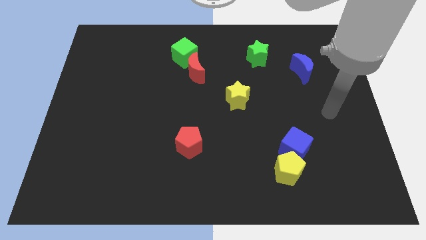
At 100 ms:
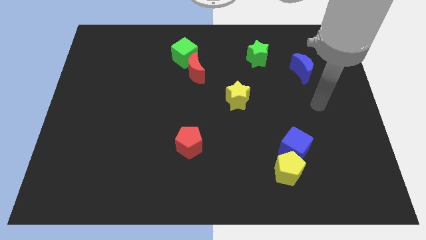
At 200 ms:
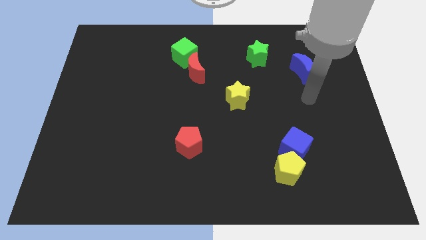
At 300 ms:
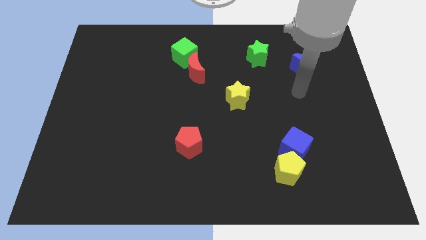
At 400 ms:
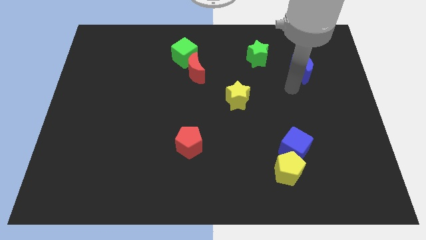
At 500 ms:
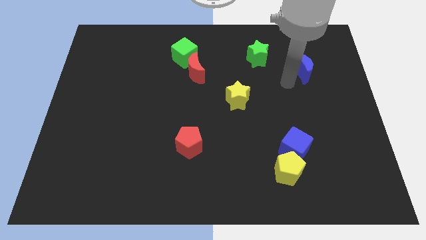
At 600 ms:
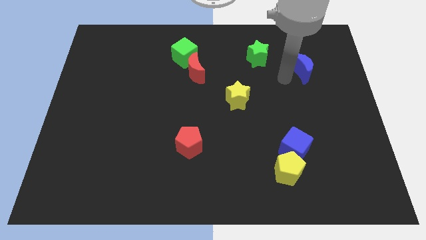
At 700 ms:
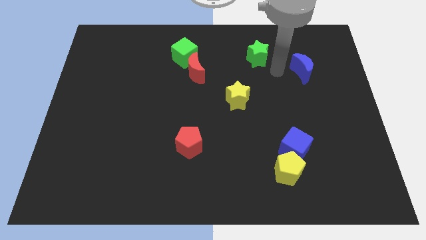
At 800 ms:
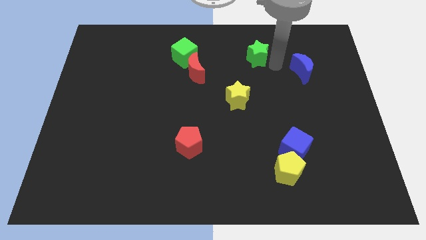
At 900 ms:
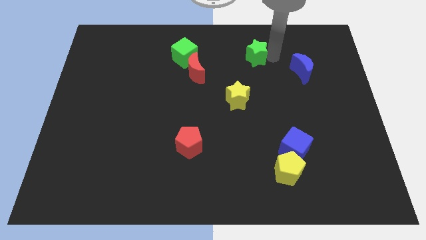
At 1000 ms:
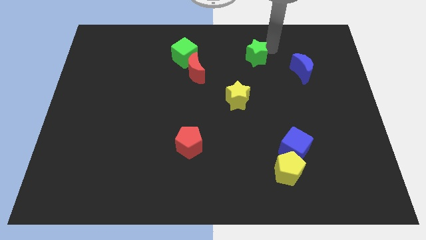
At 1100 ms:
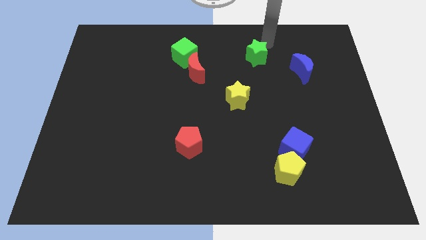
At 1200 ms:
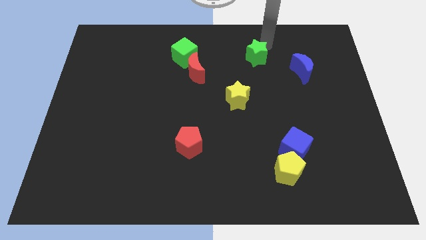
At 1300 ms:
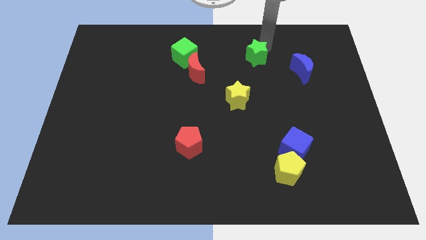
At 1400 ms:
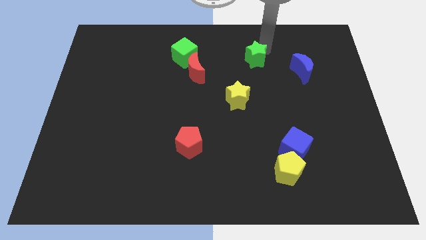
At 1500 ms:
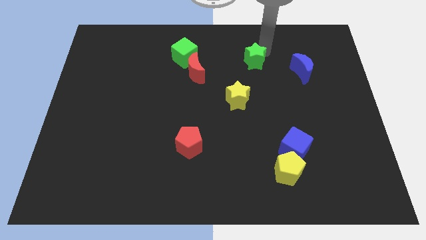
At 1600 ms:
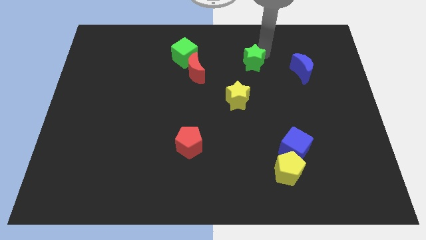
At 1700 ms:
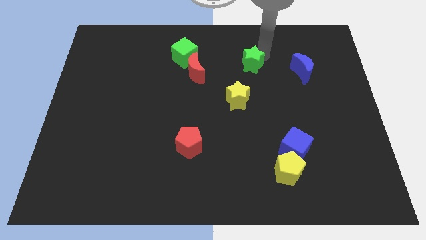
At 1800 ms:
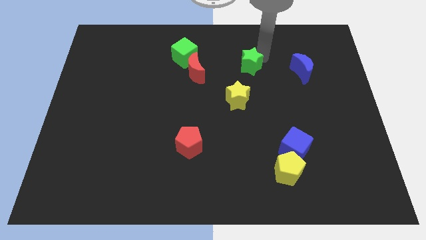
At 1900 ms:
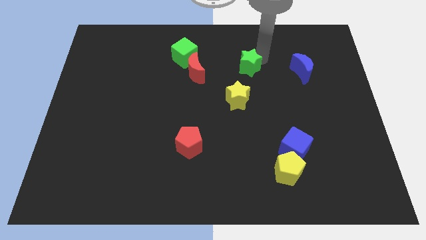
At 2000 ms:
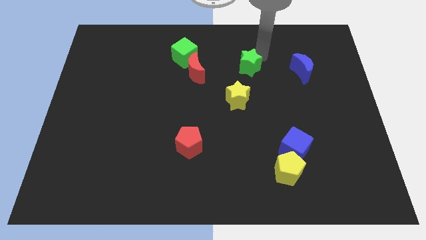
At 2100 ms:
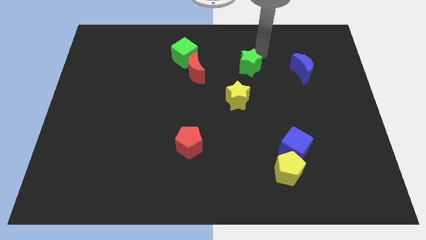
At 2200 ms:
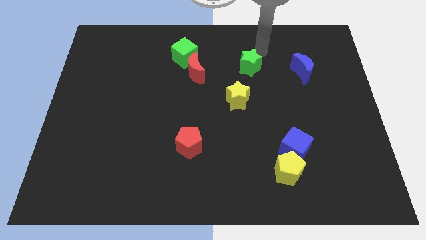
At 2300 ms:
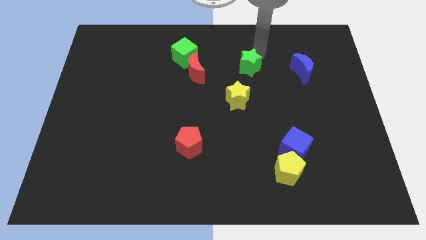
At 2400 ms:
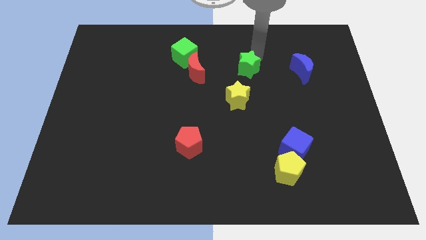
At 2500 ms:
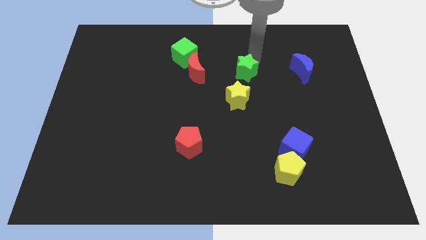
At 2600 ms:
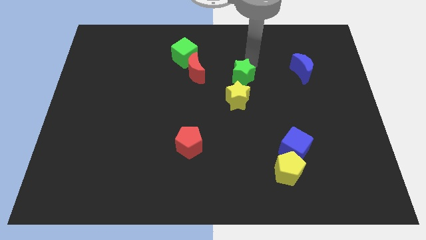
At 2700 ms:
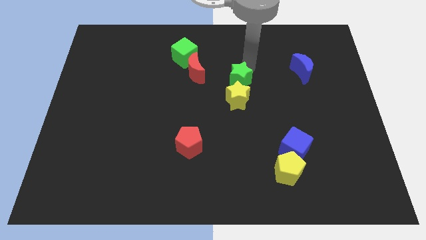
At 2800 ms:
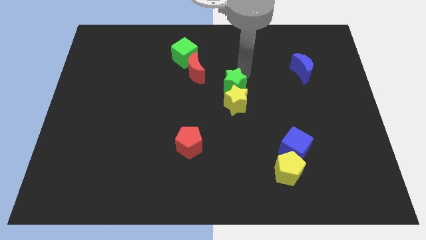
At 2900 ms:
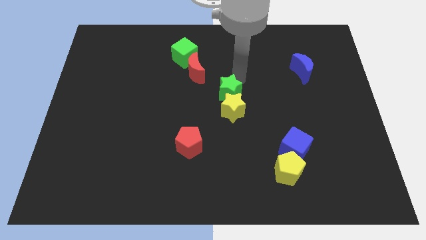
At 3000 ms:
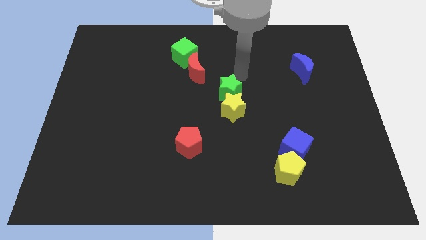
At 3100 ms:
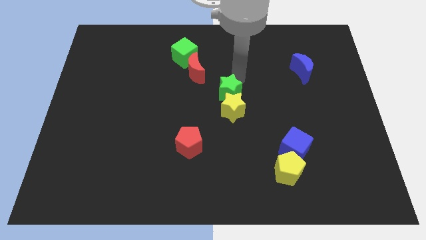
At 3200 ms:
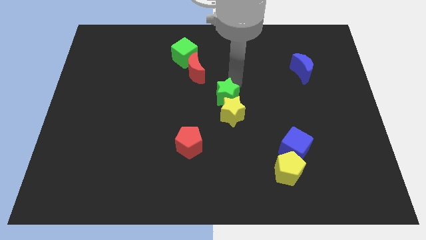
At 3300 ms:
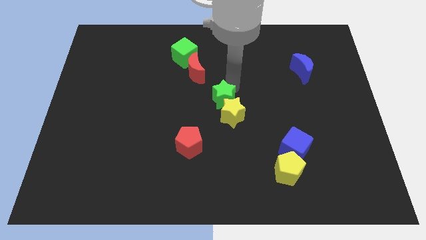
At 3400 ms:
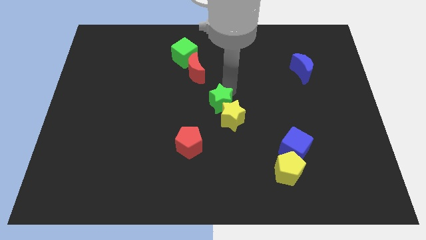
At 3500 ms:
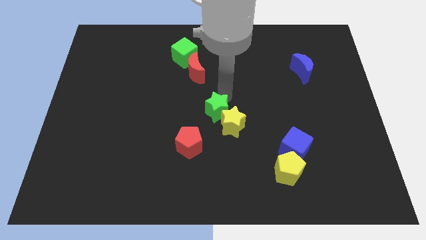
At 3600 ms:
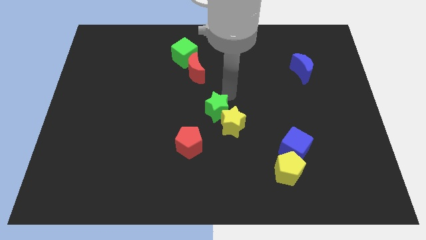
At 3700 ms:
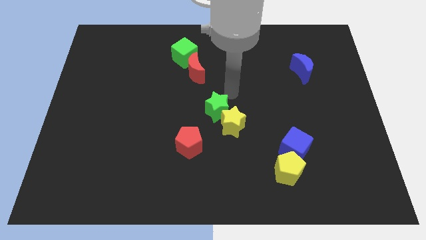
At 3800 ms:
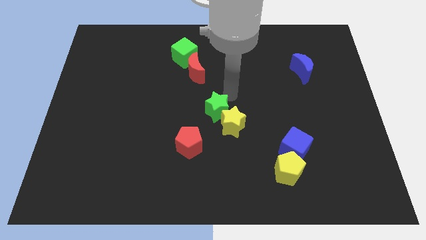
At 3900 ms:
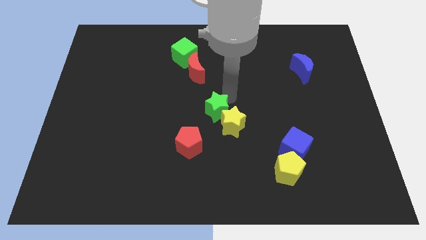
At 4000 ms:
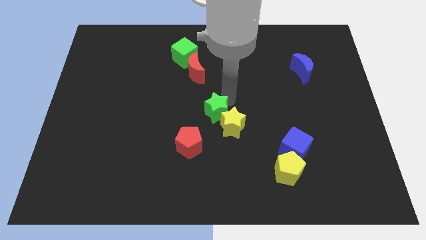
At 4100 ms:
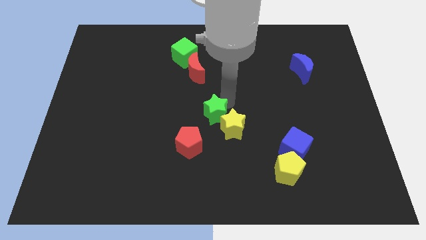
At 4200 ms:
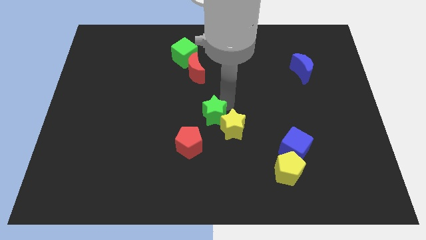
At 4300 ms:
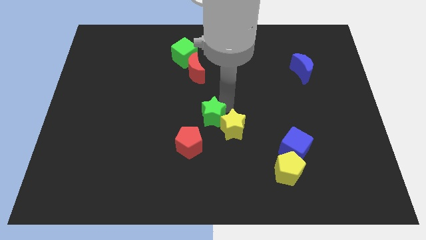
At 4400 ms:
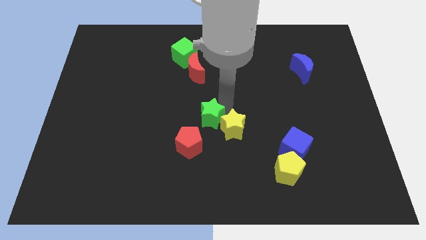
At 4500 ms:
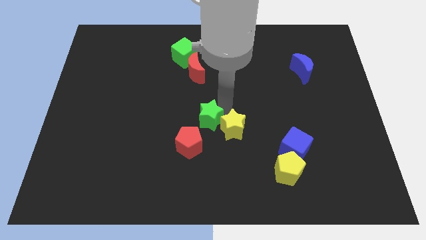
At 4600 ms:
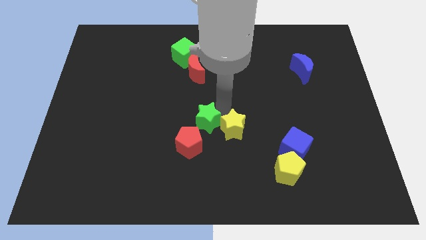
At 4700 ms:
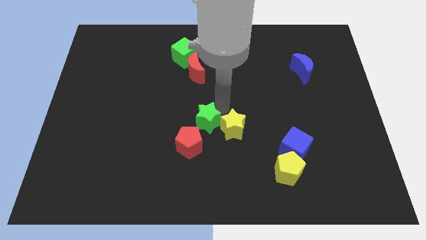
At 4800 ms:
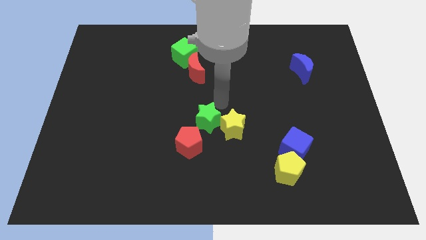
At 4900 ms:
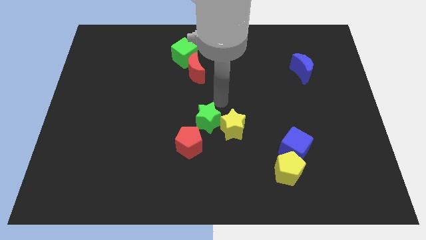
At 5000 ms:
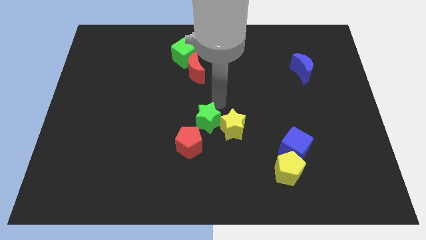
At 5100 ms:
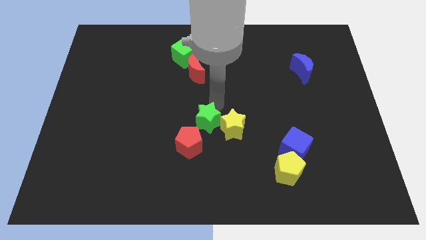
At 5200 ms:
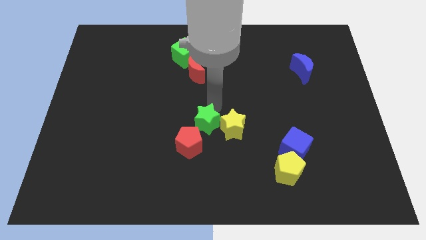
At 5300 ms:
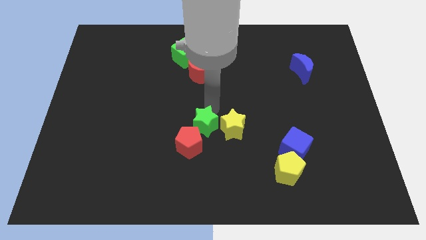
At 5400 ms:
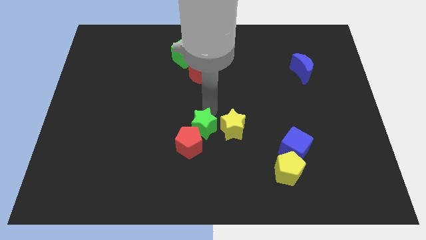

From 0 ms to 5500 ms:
push the green star to the red pentagon

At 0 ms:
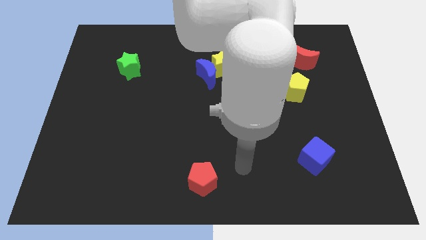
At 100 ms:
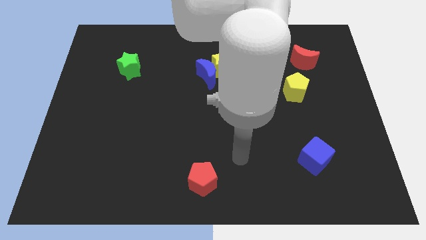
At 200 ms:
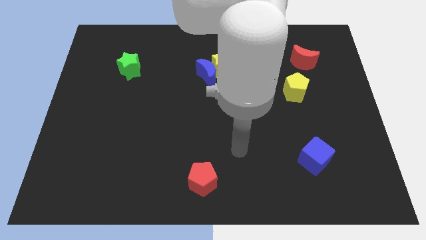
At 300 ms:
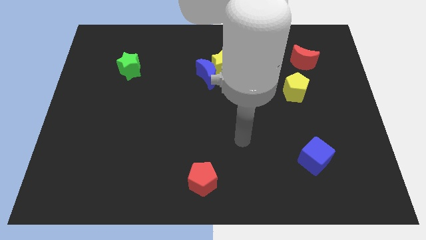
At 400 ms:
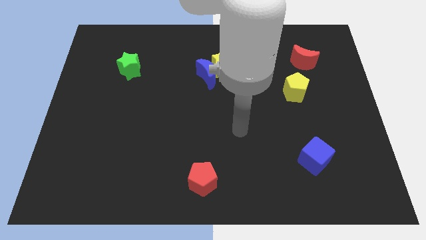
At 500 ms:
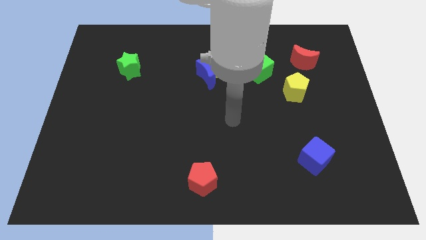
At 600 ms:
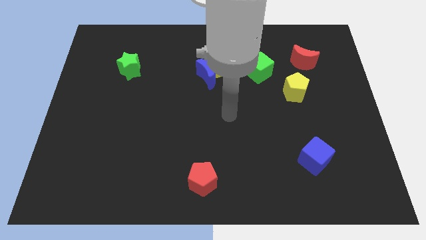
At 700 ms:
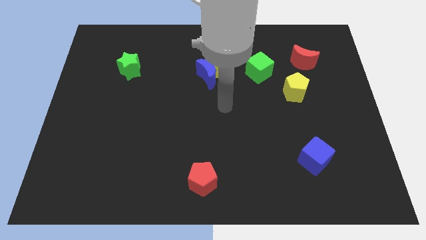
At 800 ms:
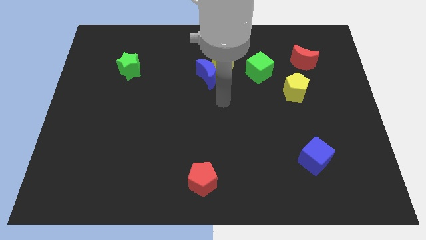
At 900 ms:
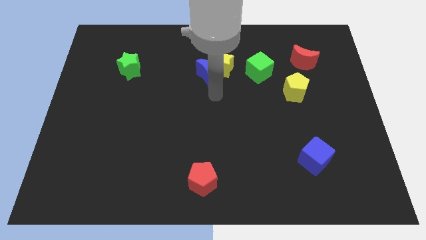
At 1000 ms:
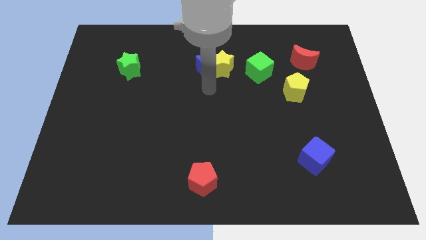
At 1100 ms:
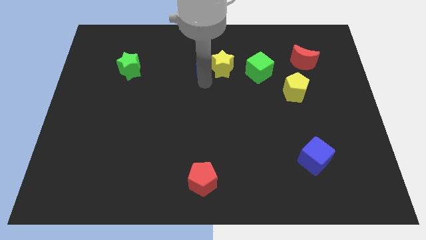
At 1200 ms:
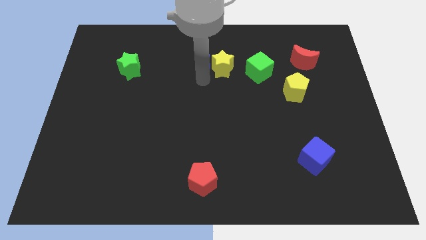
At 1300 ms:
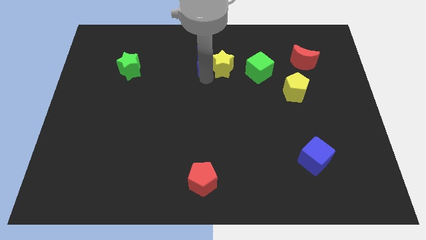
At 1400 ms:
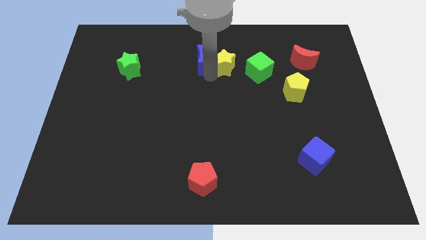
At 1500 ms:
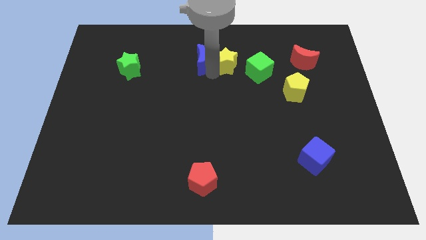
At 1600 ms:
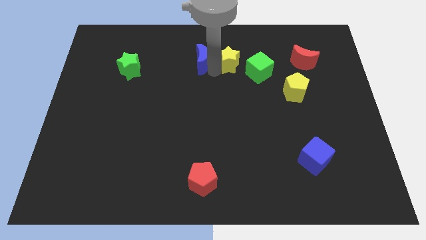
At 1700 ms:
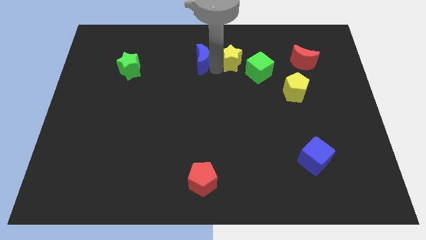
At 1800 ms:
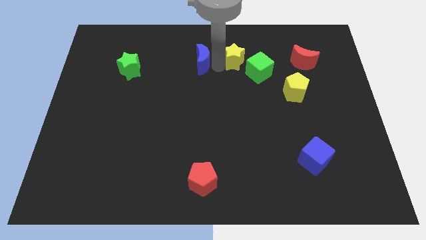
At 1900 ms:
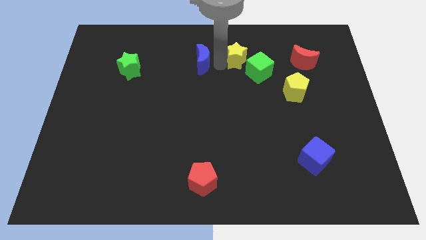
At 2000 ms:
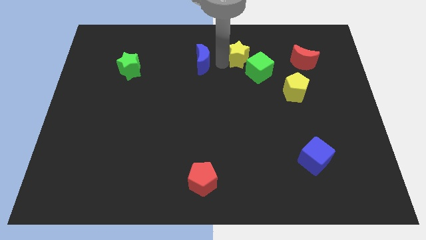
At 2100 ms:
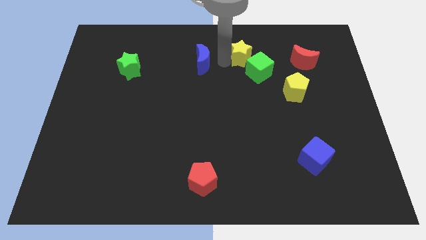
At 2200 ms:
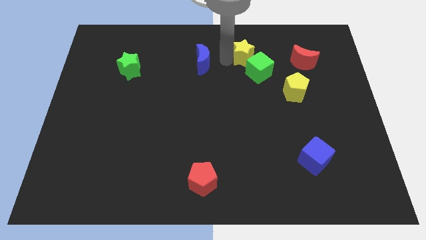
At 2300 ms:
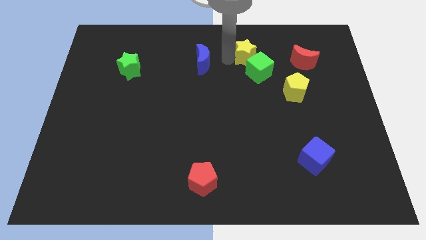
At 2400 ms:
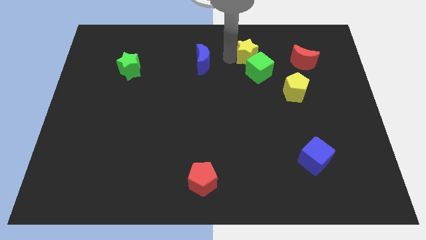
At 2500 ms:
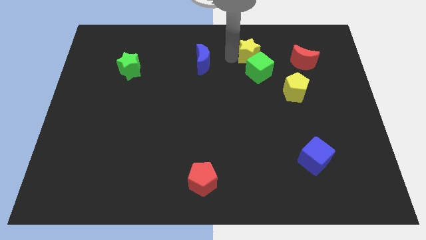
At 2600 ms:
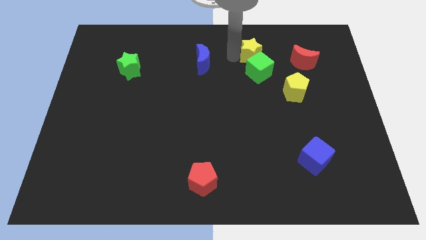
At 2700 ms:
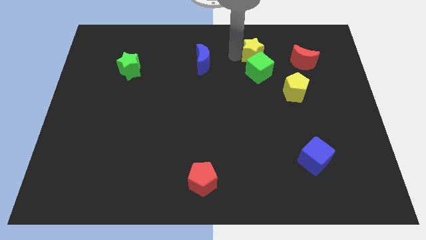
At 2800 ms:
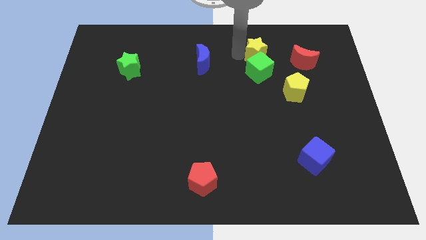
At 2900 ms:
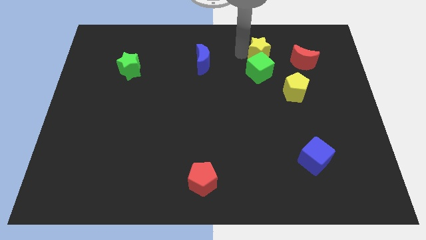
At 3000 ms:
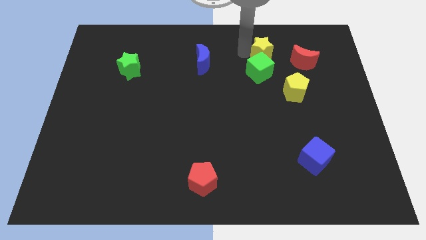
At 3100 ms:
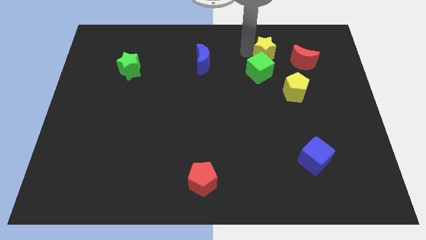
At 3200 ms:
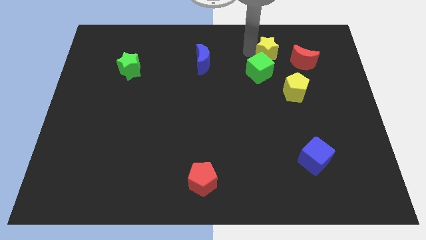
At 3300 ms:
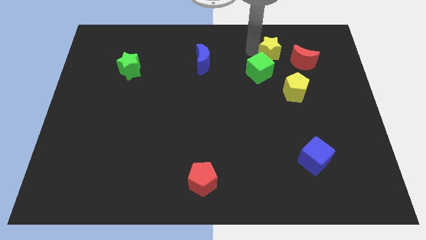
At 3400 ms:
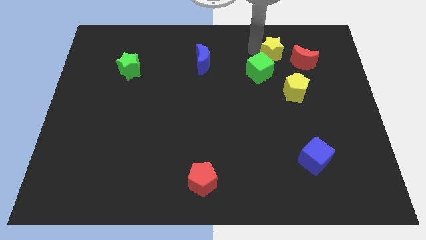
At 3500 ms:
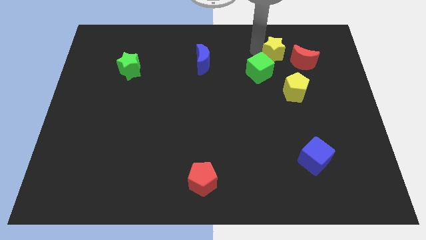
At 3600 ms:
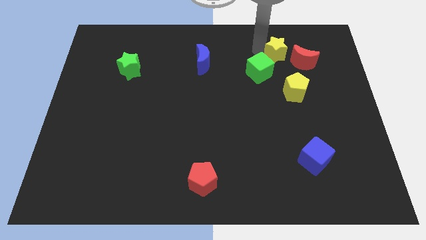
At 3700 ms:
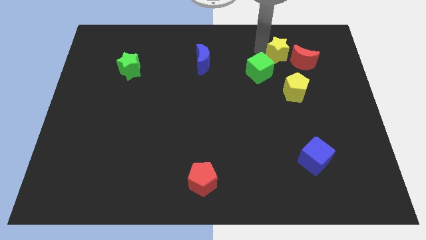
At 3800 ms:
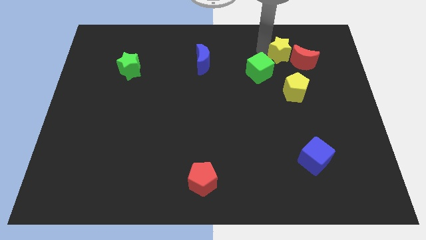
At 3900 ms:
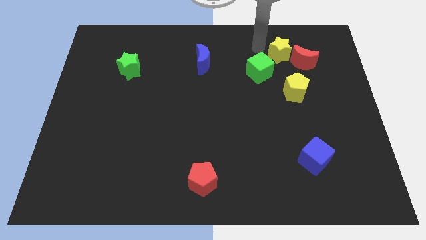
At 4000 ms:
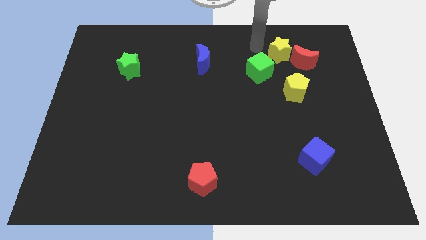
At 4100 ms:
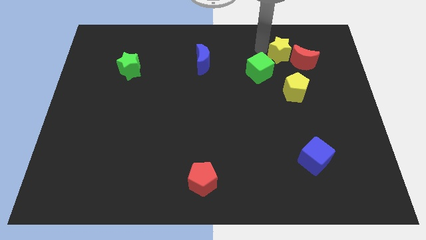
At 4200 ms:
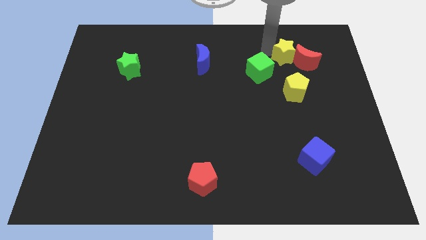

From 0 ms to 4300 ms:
slide the yellow star close to the red moon
